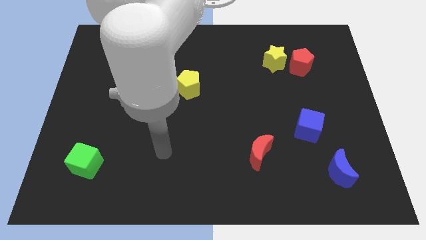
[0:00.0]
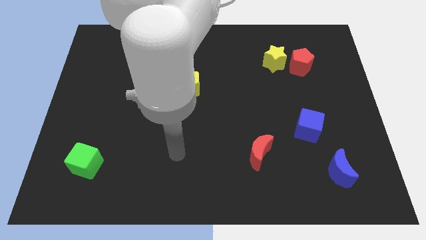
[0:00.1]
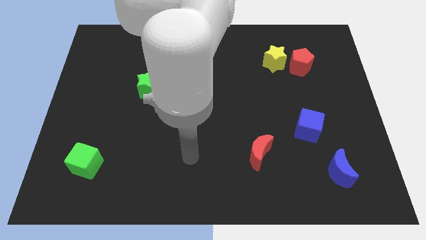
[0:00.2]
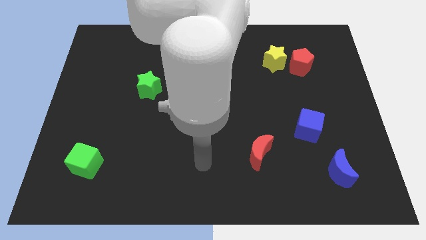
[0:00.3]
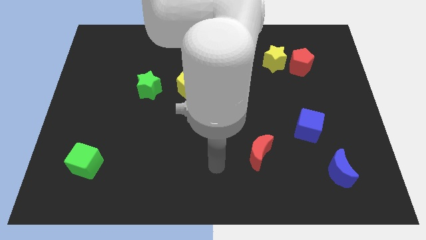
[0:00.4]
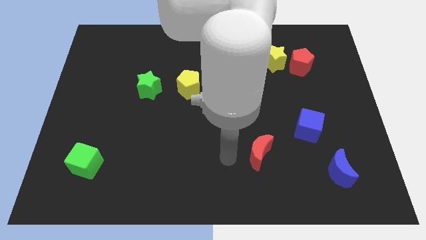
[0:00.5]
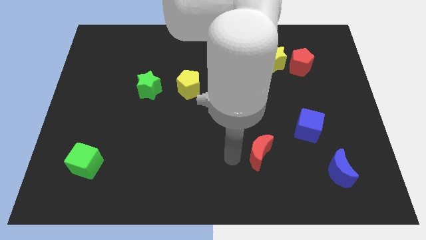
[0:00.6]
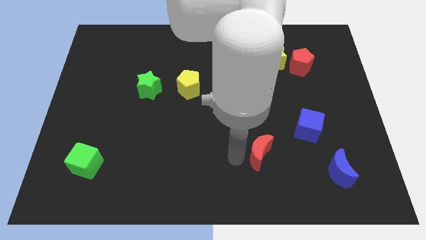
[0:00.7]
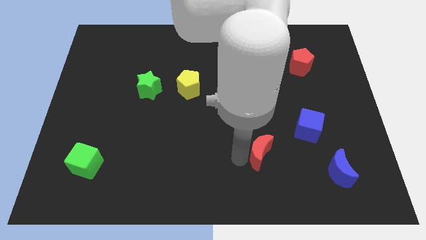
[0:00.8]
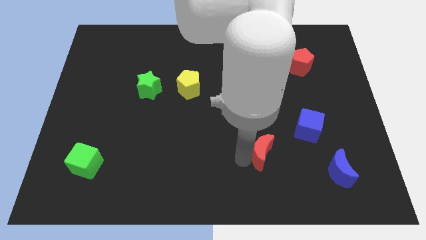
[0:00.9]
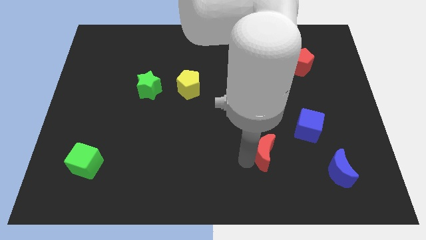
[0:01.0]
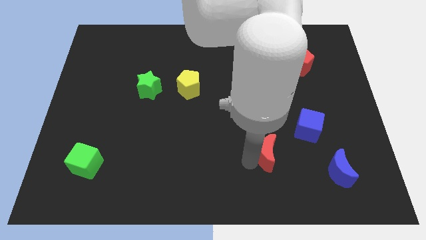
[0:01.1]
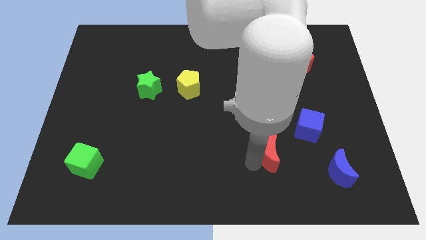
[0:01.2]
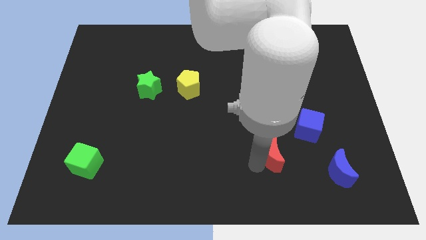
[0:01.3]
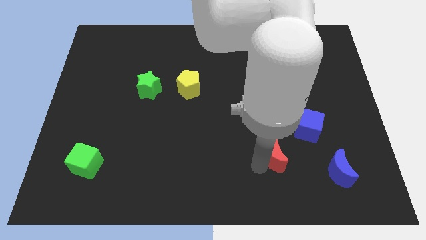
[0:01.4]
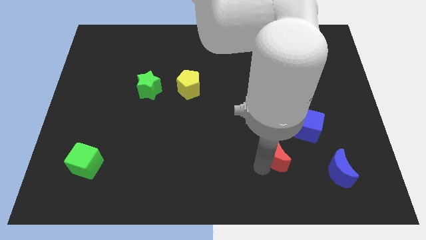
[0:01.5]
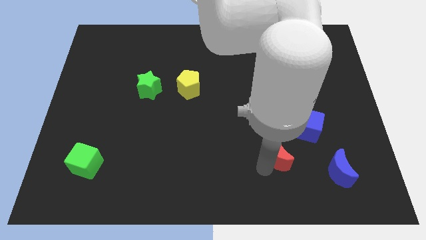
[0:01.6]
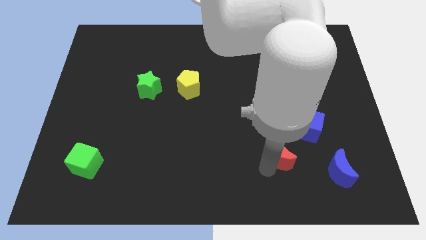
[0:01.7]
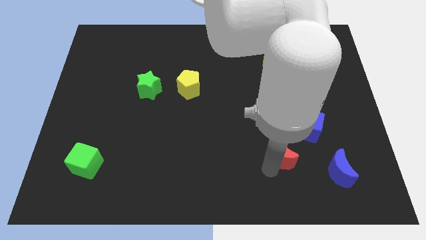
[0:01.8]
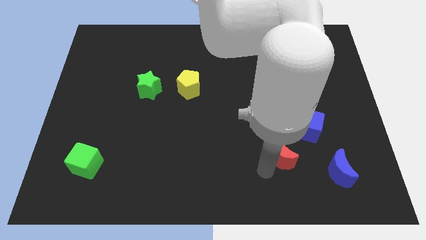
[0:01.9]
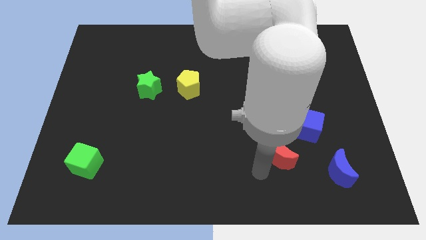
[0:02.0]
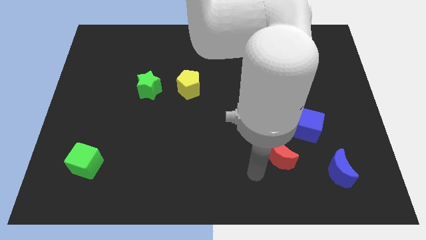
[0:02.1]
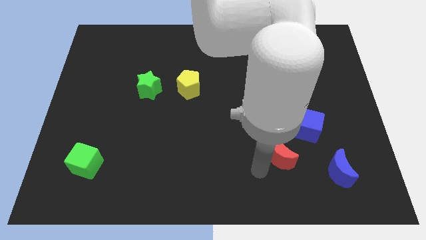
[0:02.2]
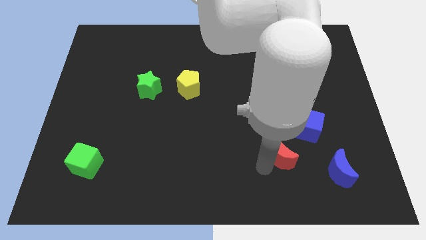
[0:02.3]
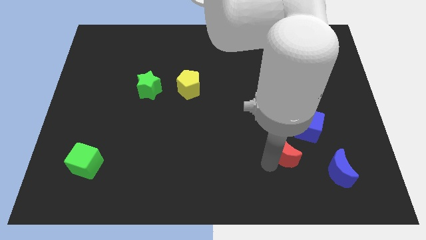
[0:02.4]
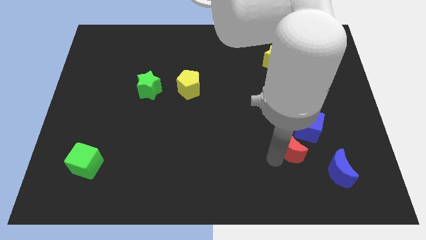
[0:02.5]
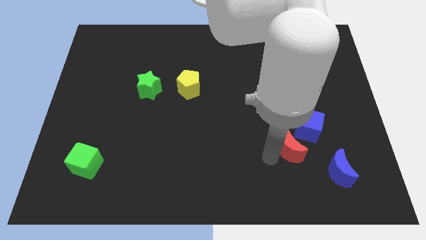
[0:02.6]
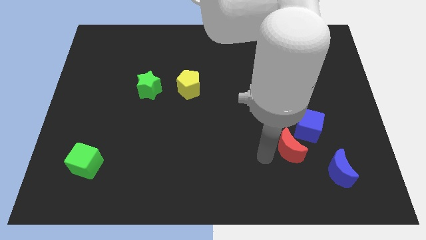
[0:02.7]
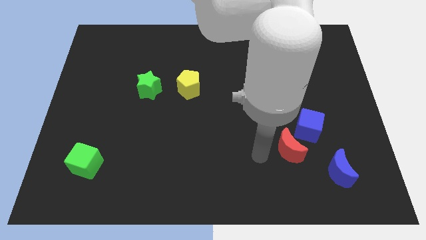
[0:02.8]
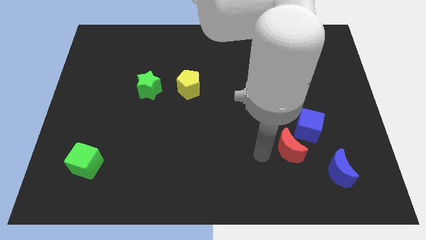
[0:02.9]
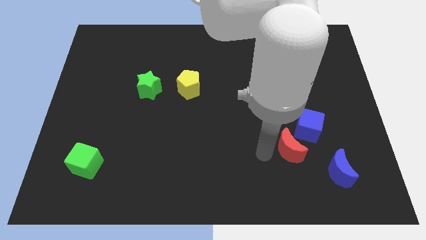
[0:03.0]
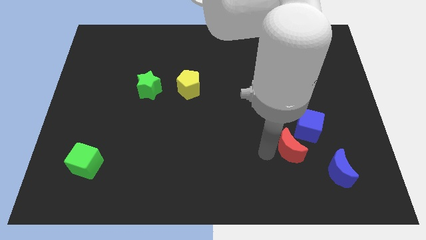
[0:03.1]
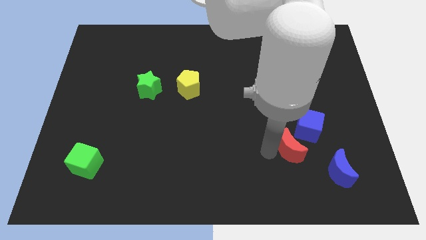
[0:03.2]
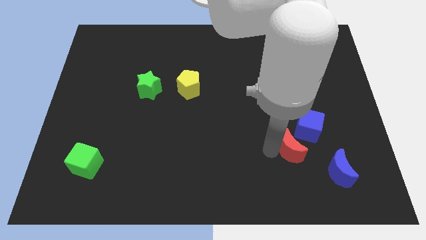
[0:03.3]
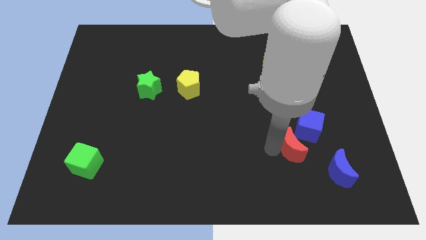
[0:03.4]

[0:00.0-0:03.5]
move the red moon right a little bit

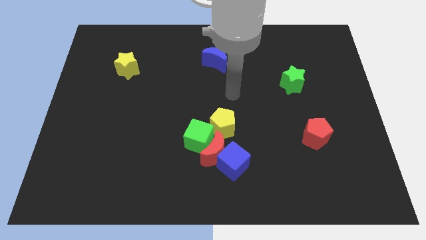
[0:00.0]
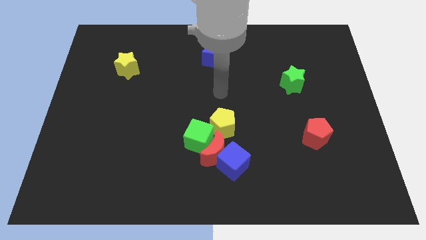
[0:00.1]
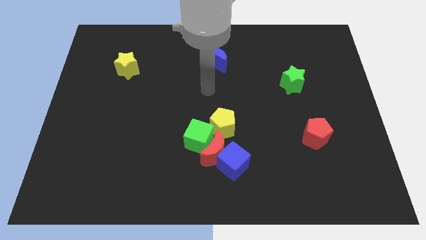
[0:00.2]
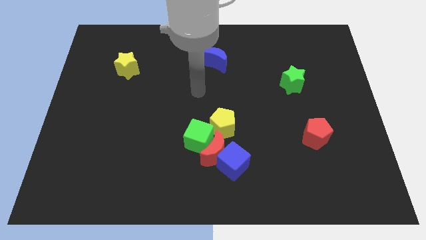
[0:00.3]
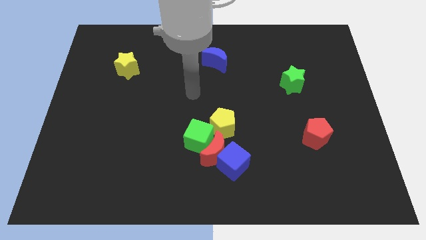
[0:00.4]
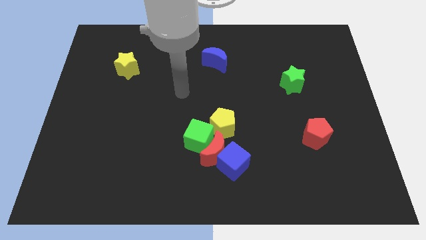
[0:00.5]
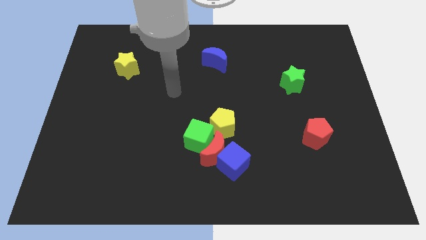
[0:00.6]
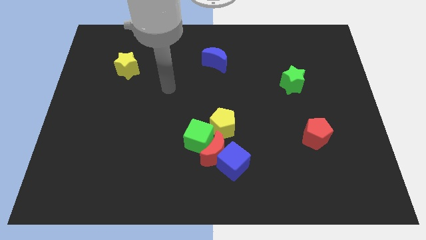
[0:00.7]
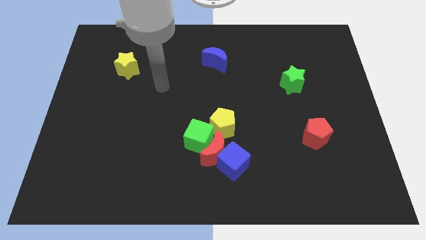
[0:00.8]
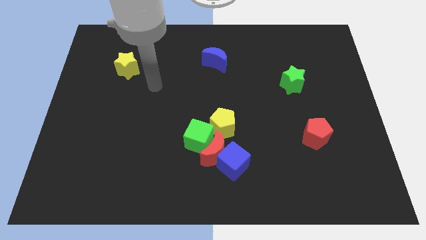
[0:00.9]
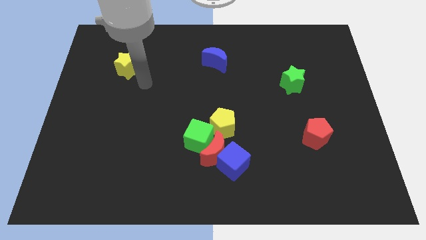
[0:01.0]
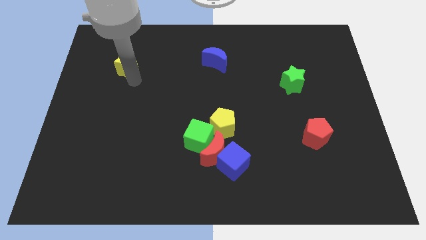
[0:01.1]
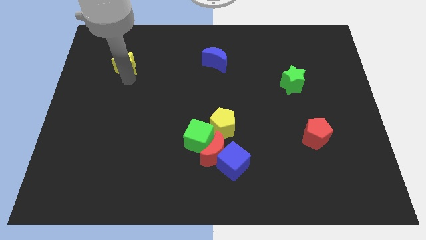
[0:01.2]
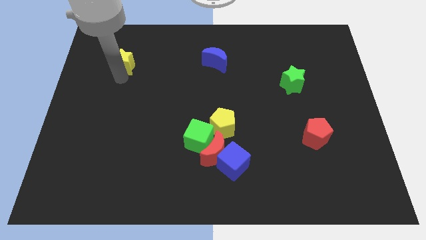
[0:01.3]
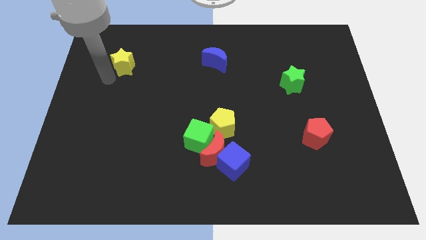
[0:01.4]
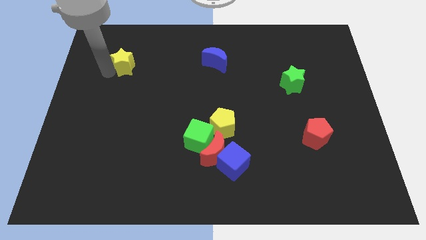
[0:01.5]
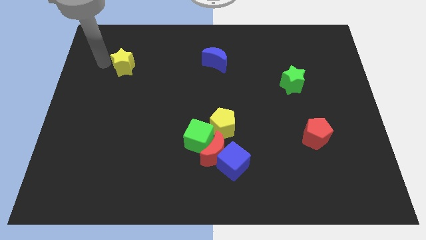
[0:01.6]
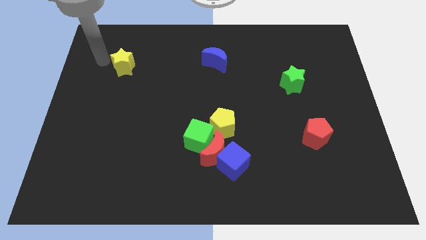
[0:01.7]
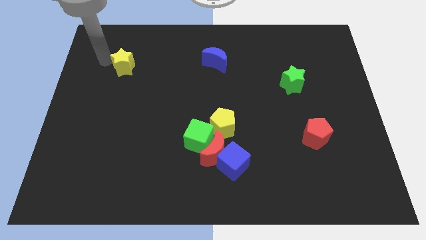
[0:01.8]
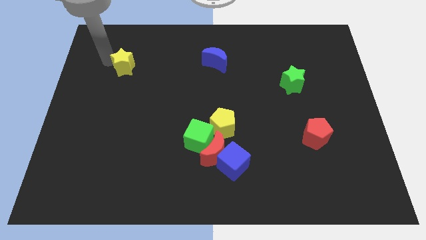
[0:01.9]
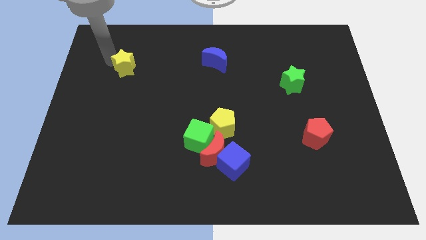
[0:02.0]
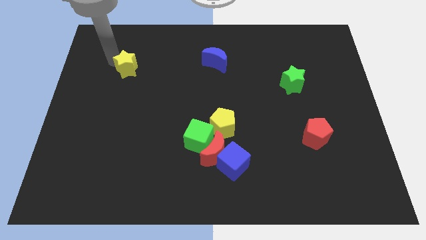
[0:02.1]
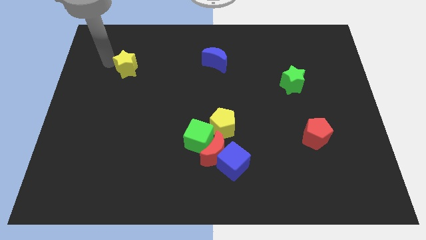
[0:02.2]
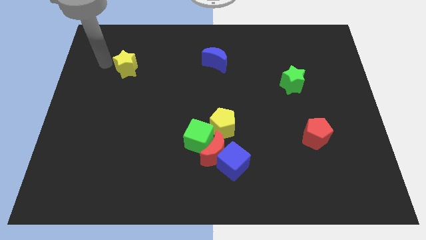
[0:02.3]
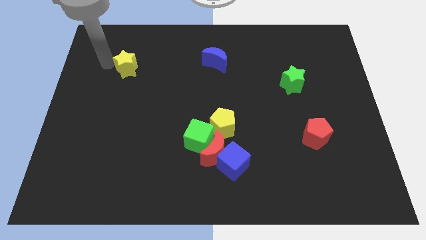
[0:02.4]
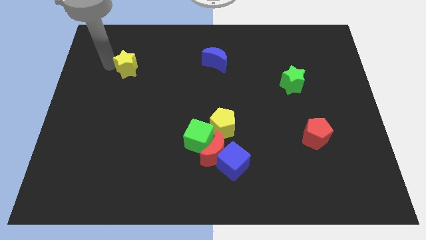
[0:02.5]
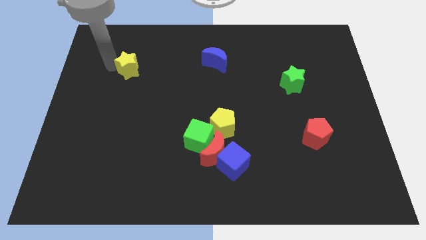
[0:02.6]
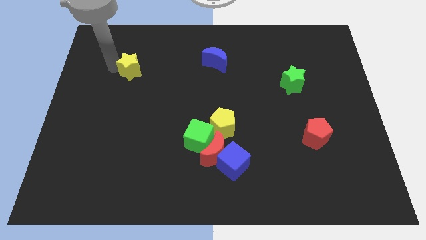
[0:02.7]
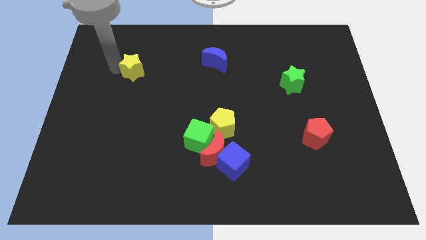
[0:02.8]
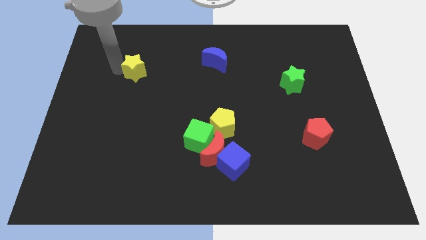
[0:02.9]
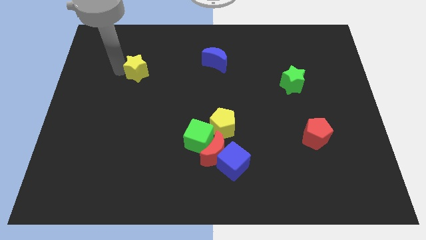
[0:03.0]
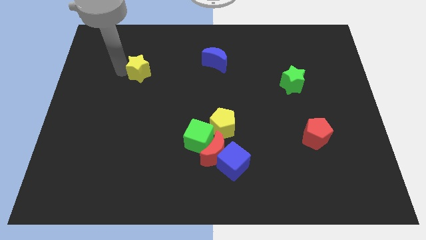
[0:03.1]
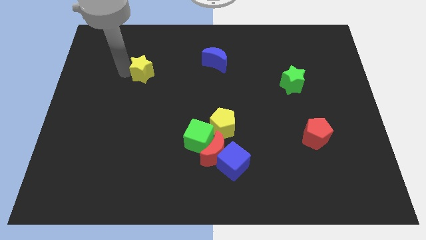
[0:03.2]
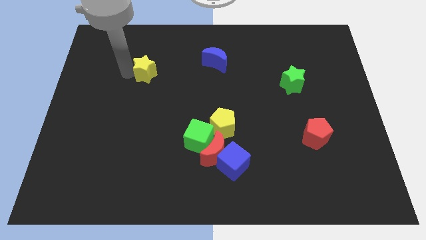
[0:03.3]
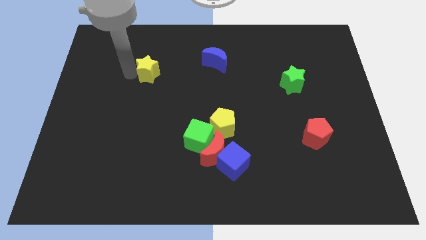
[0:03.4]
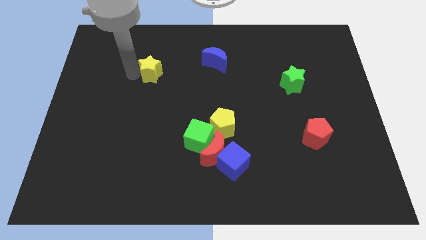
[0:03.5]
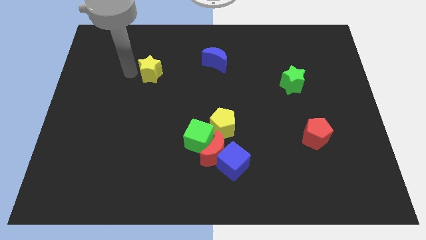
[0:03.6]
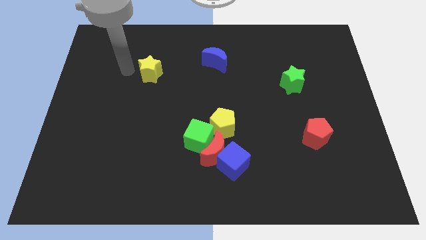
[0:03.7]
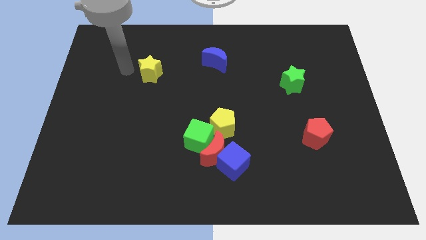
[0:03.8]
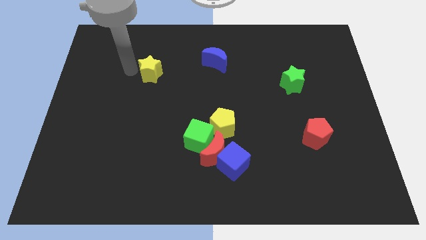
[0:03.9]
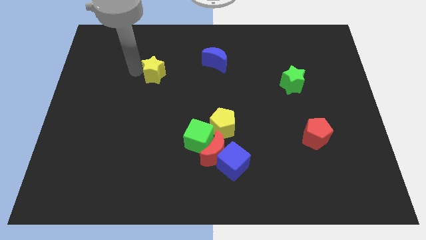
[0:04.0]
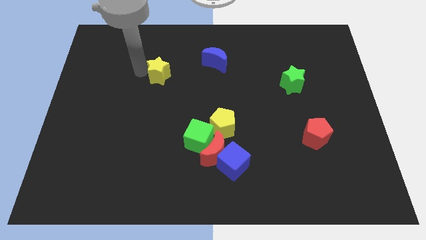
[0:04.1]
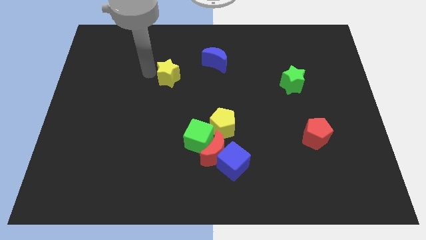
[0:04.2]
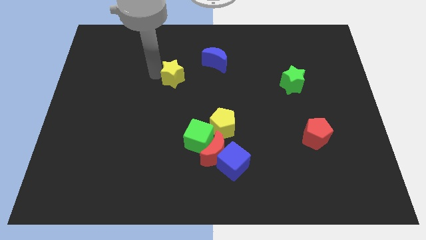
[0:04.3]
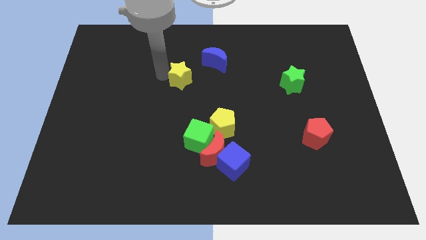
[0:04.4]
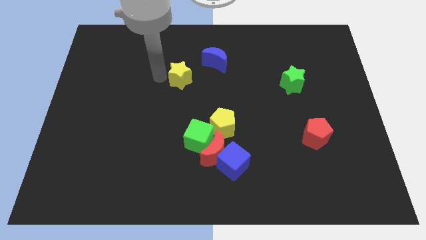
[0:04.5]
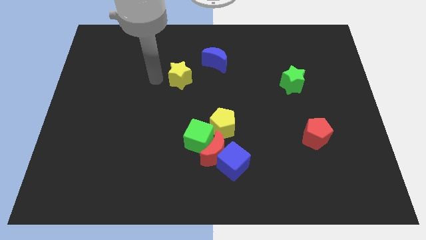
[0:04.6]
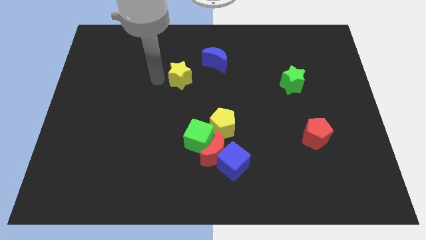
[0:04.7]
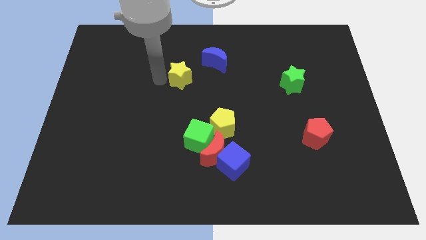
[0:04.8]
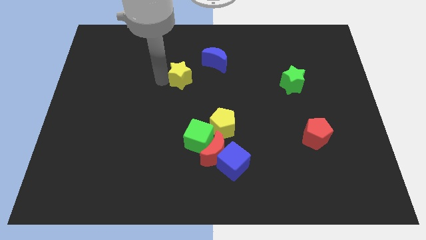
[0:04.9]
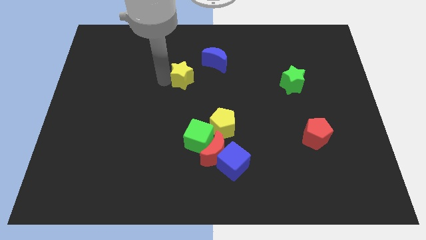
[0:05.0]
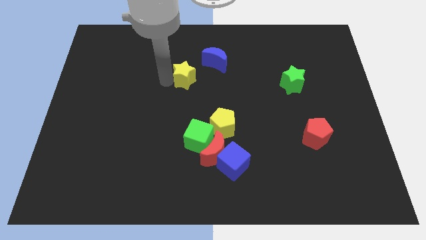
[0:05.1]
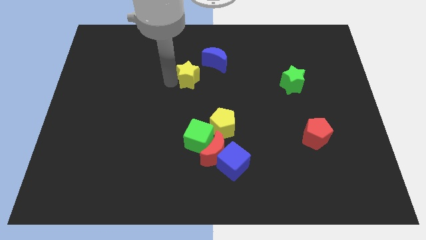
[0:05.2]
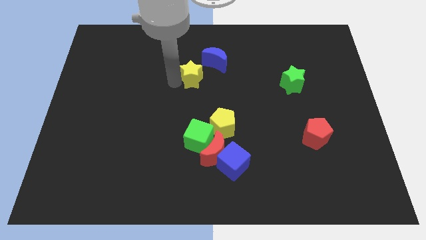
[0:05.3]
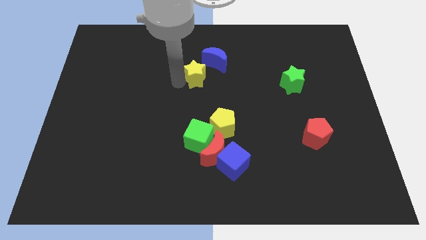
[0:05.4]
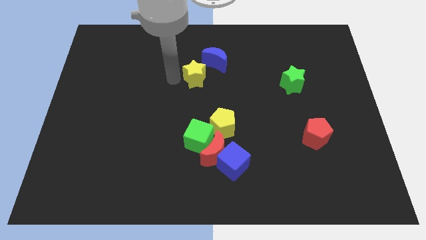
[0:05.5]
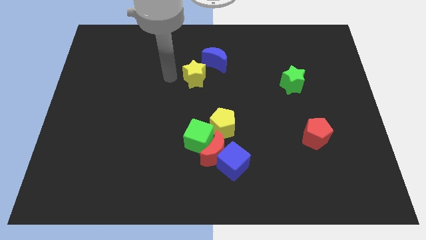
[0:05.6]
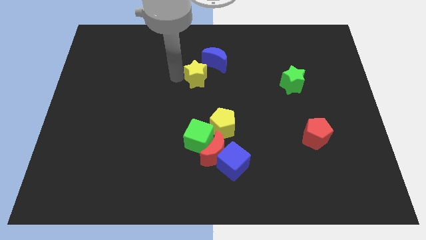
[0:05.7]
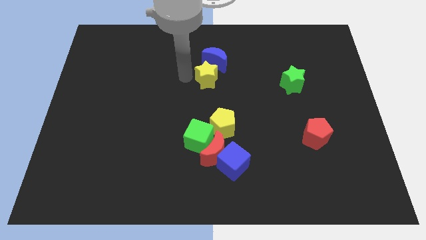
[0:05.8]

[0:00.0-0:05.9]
slide the yellow star right
